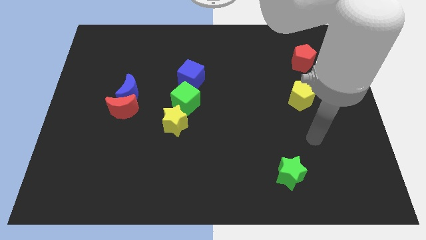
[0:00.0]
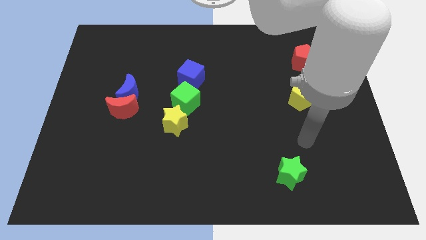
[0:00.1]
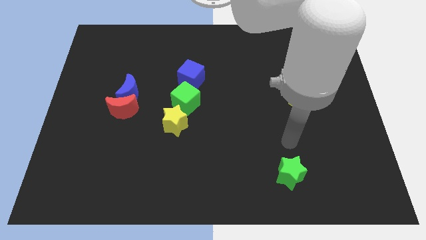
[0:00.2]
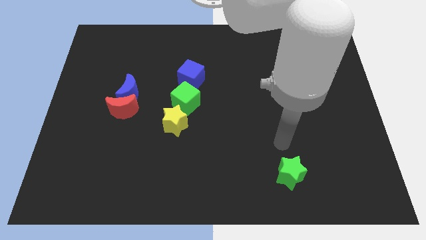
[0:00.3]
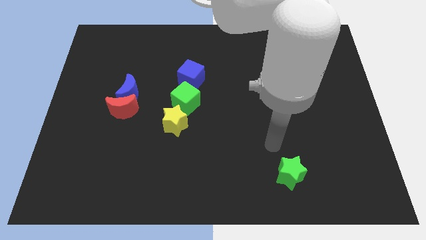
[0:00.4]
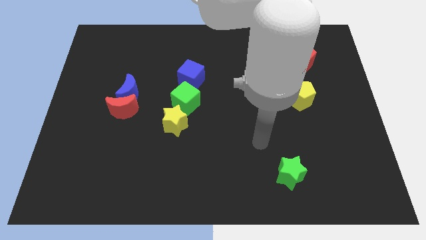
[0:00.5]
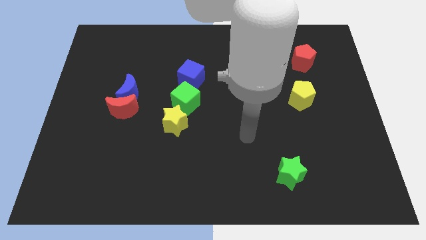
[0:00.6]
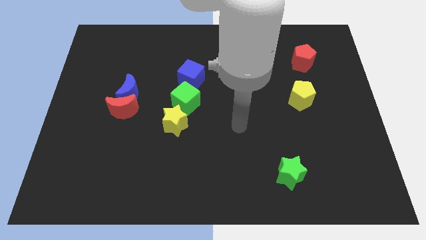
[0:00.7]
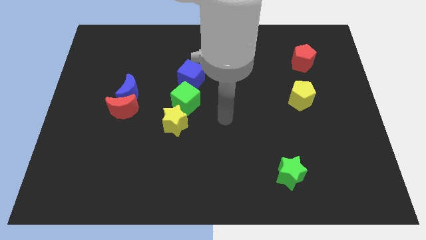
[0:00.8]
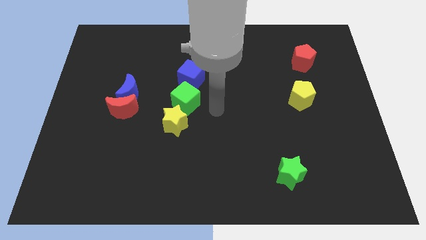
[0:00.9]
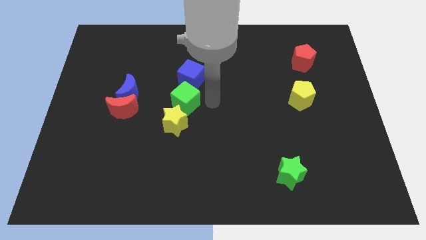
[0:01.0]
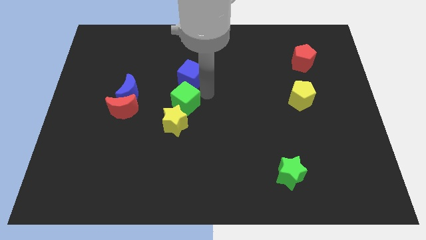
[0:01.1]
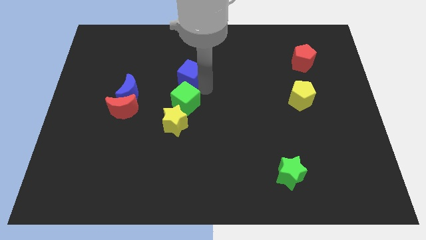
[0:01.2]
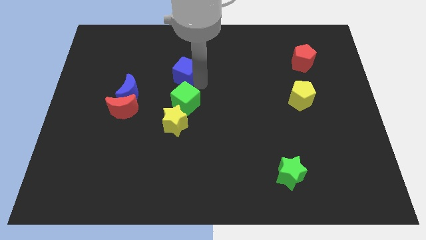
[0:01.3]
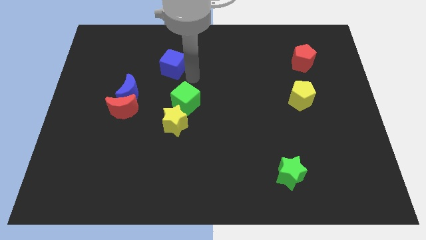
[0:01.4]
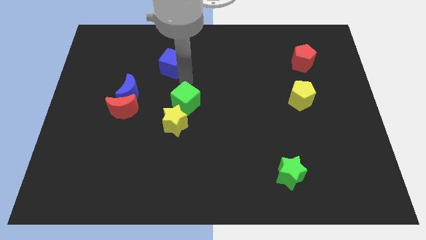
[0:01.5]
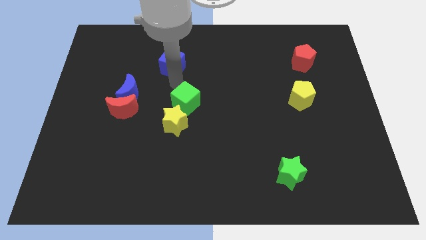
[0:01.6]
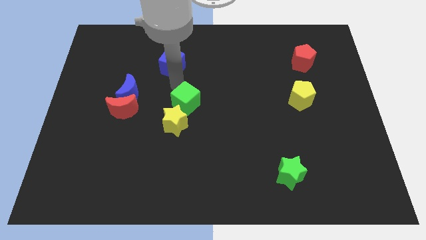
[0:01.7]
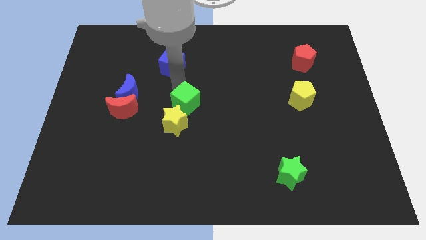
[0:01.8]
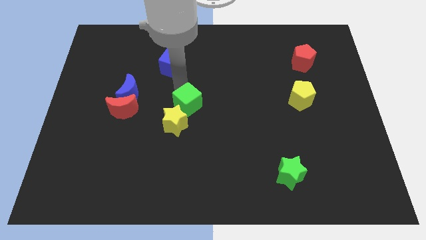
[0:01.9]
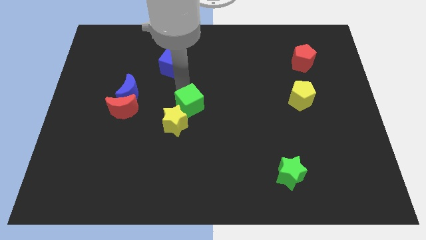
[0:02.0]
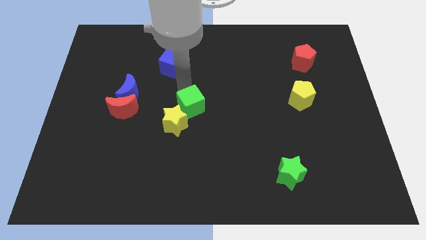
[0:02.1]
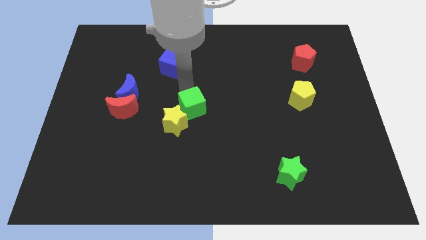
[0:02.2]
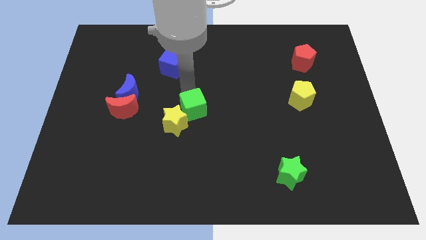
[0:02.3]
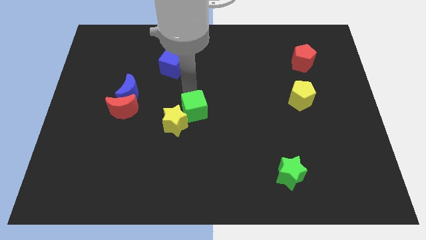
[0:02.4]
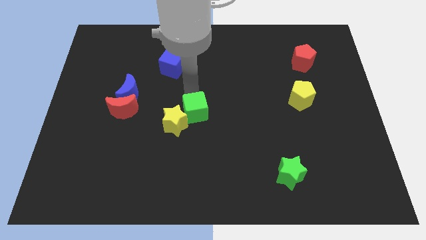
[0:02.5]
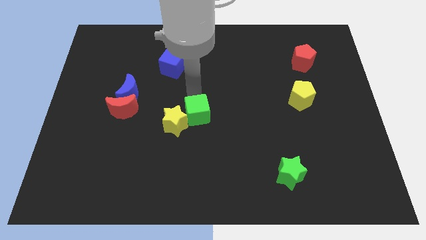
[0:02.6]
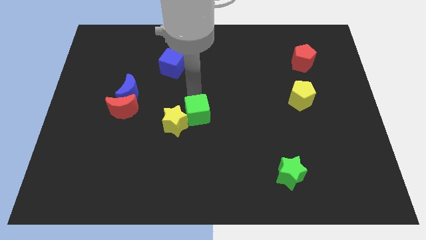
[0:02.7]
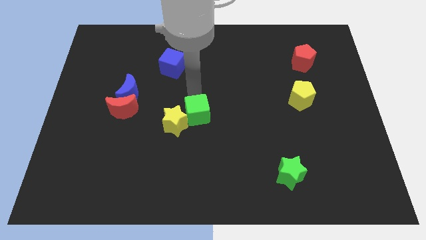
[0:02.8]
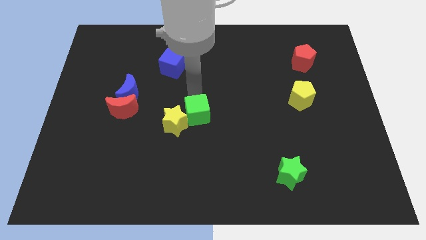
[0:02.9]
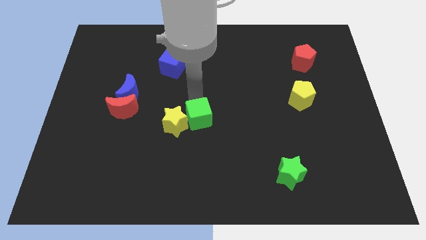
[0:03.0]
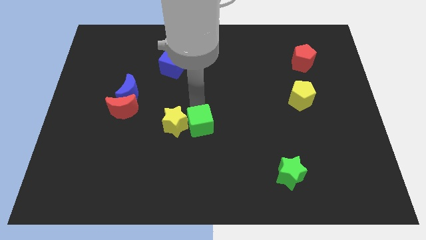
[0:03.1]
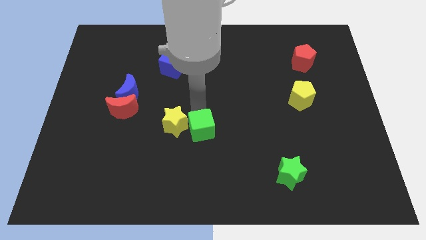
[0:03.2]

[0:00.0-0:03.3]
slightly push the green cube downwards

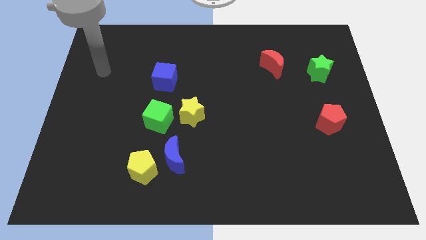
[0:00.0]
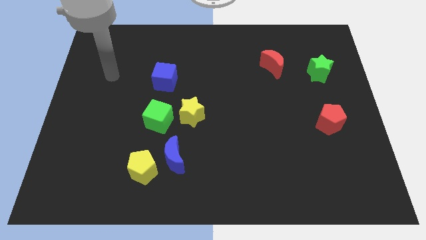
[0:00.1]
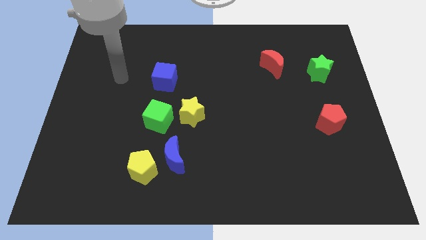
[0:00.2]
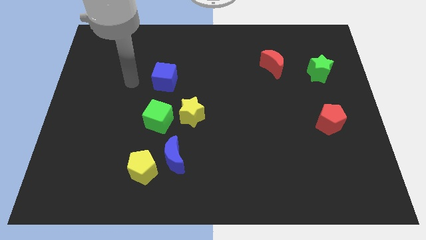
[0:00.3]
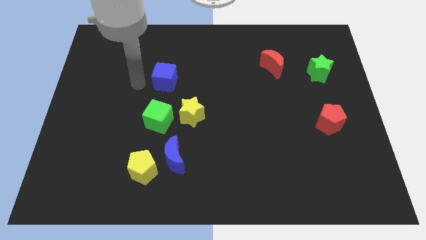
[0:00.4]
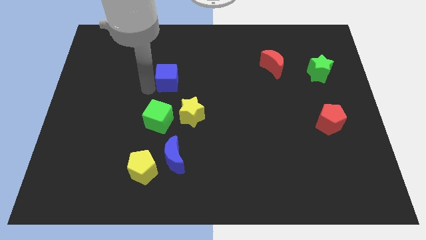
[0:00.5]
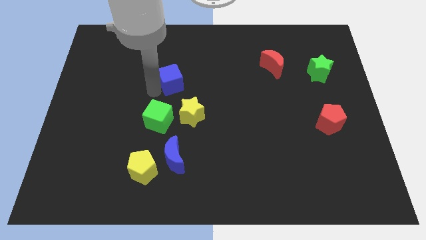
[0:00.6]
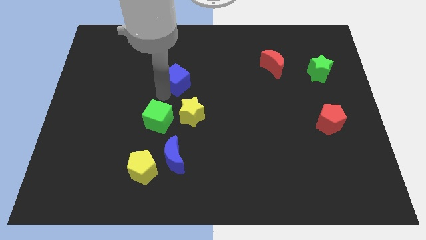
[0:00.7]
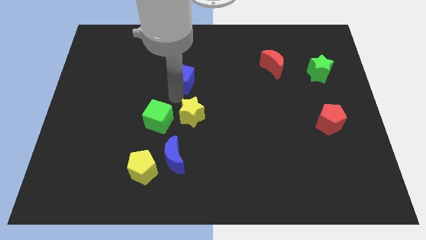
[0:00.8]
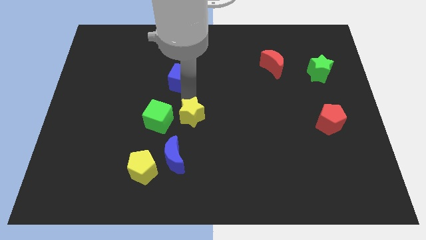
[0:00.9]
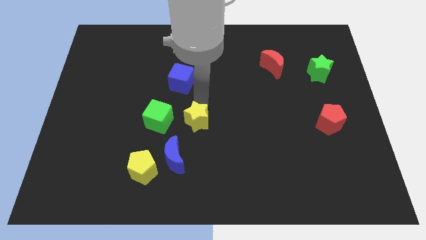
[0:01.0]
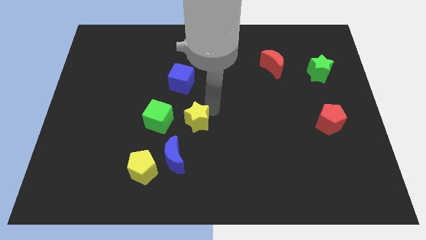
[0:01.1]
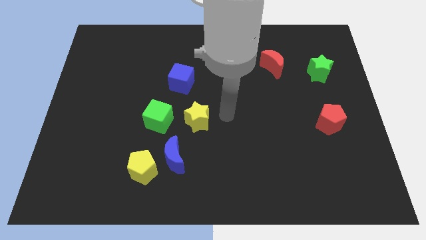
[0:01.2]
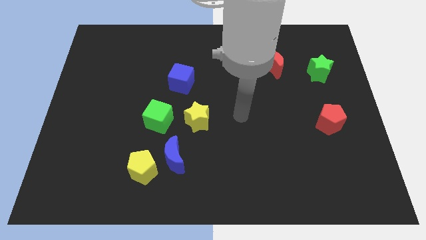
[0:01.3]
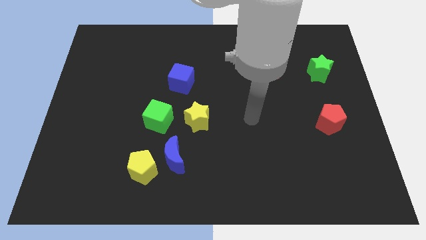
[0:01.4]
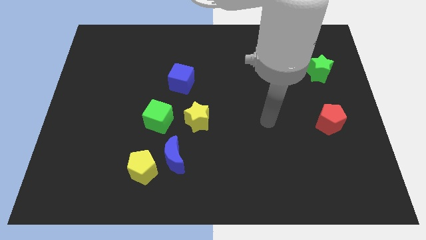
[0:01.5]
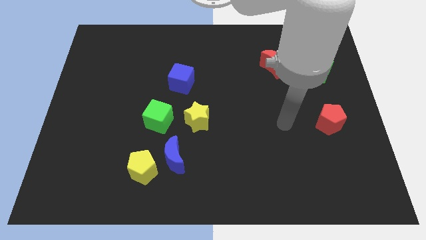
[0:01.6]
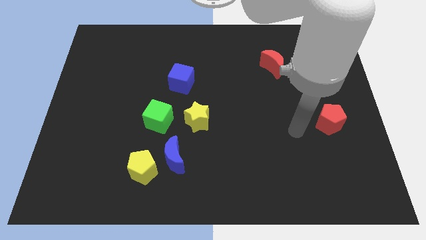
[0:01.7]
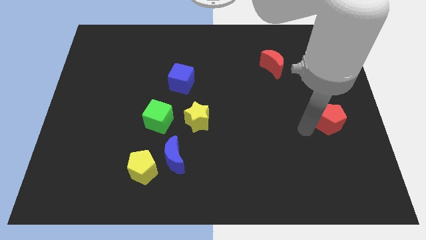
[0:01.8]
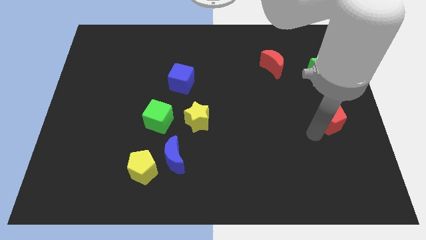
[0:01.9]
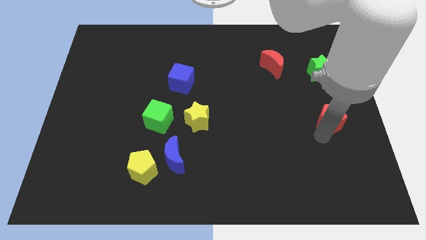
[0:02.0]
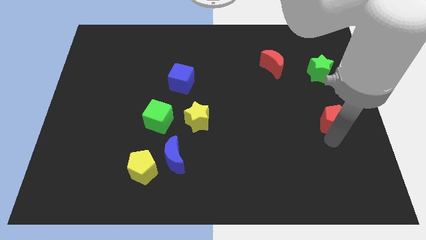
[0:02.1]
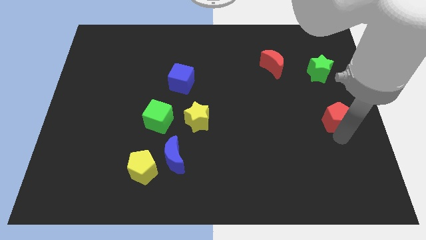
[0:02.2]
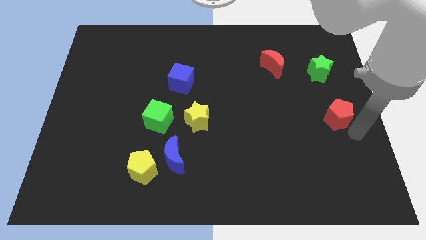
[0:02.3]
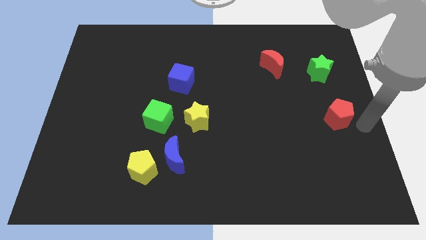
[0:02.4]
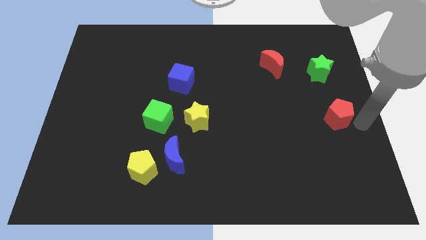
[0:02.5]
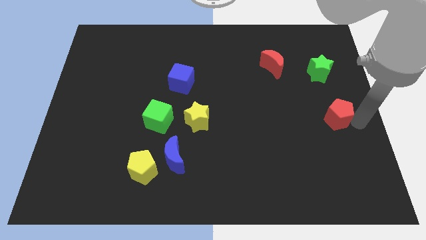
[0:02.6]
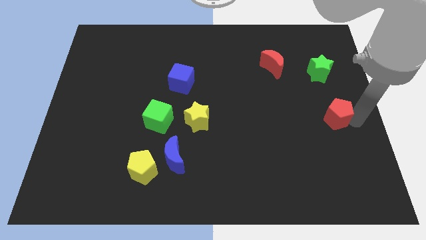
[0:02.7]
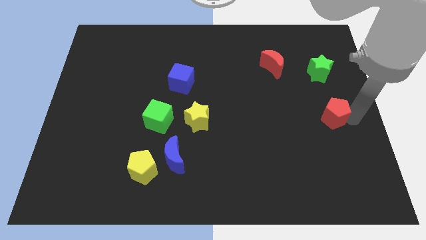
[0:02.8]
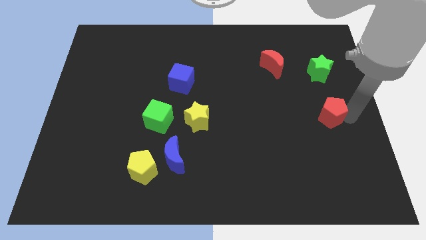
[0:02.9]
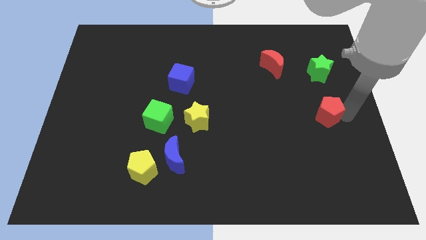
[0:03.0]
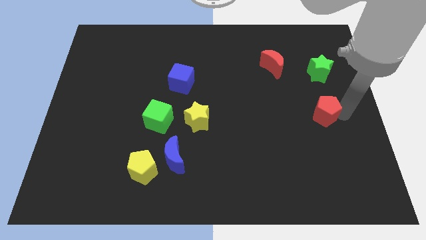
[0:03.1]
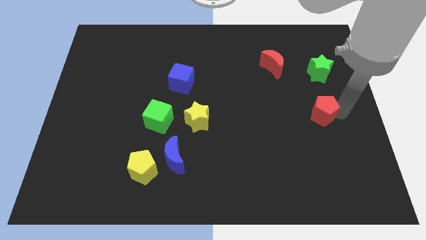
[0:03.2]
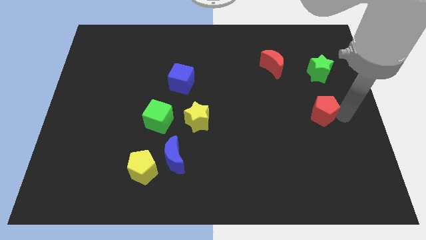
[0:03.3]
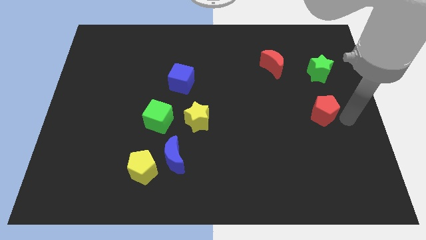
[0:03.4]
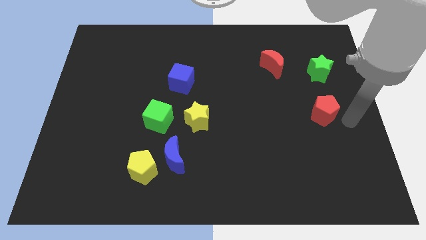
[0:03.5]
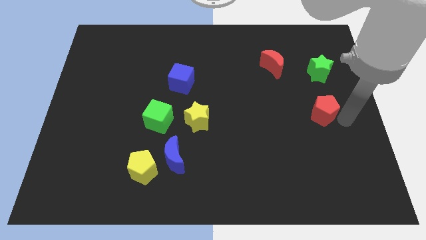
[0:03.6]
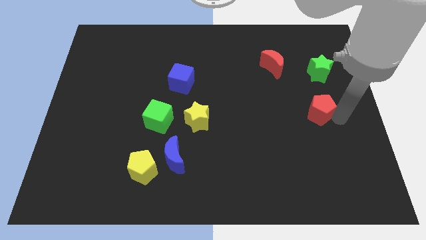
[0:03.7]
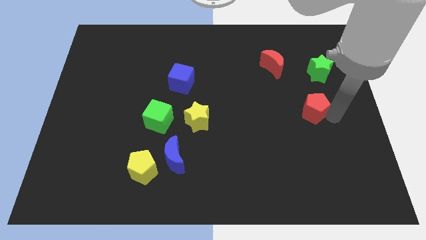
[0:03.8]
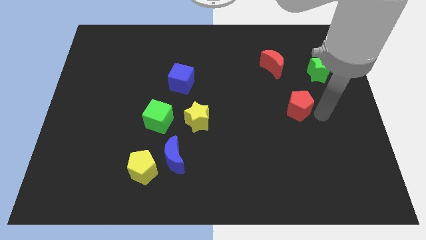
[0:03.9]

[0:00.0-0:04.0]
push the red pentagon a little bit upwards and to the left diagonally

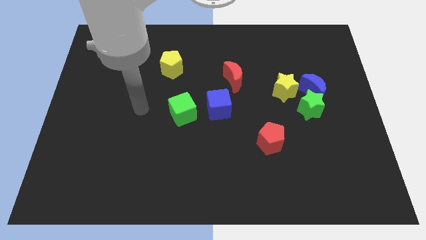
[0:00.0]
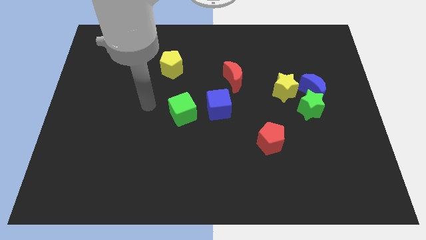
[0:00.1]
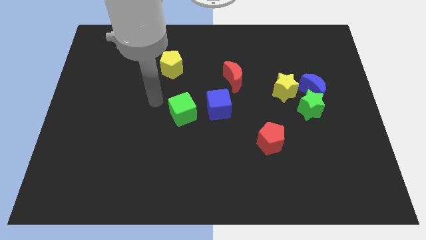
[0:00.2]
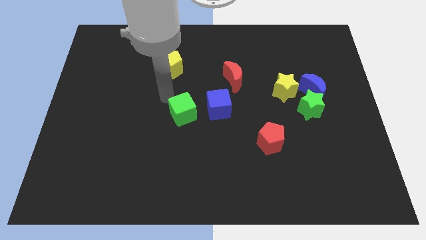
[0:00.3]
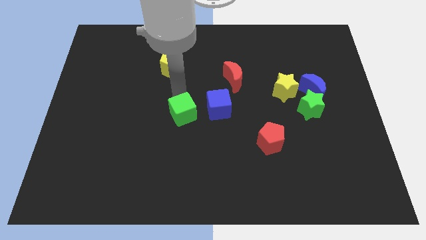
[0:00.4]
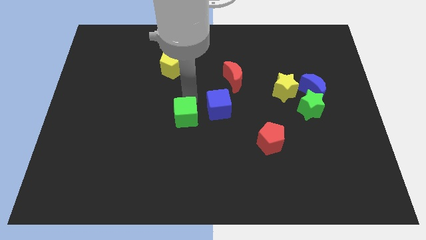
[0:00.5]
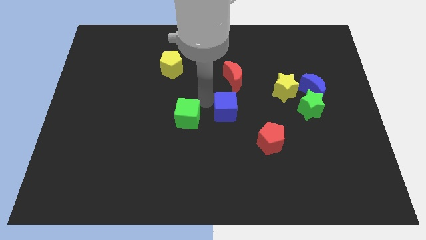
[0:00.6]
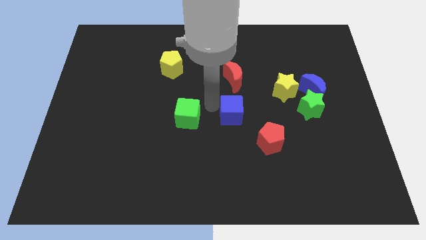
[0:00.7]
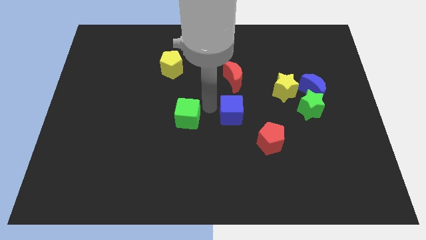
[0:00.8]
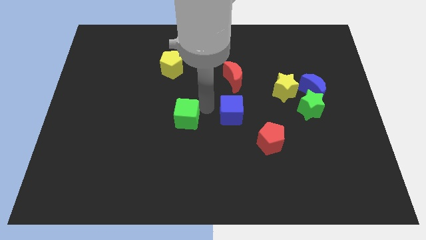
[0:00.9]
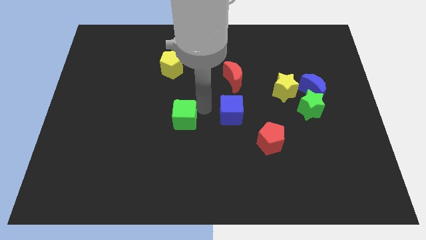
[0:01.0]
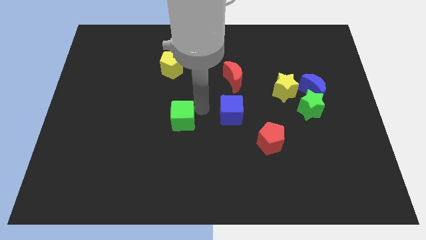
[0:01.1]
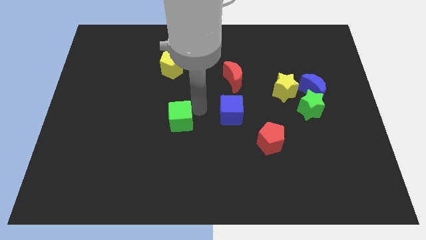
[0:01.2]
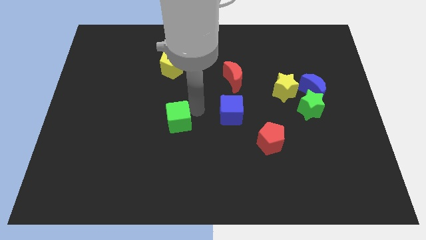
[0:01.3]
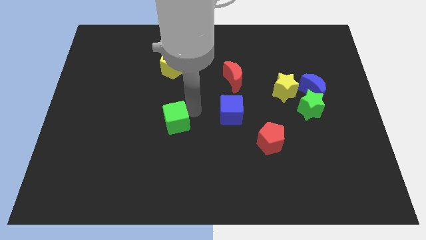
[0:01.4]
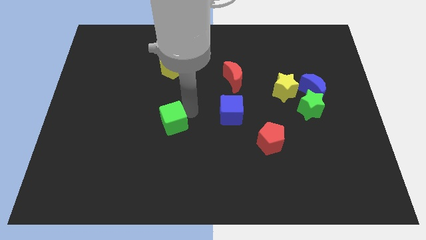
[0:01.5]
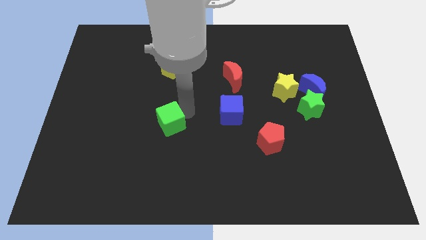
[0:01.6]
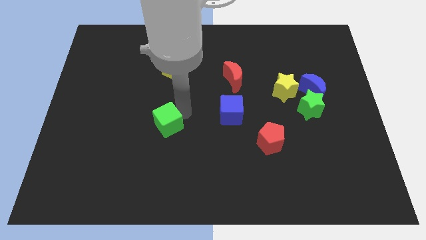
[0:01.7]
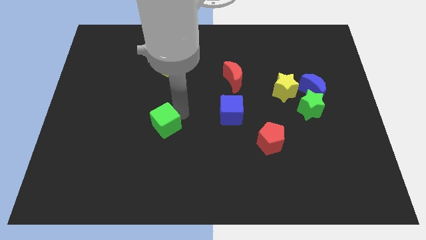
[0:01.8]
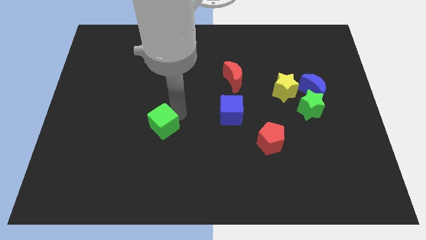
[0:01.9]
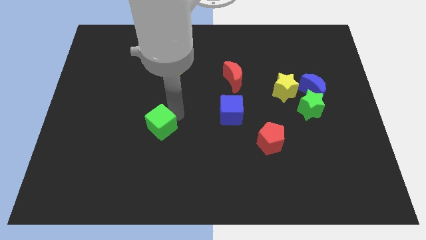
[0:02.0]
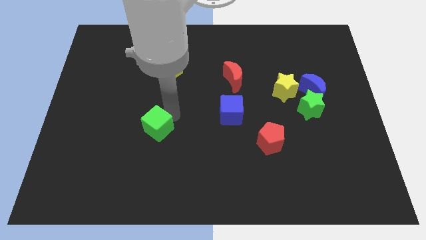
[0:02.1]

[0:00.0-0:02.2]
slide the green cube a bit down and to the left diagonally
